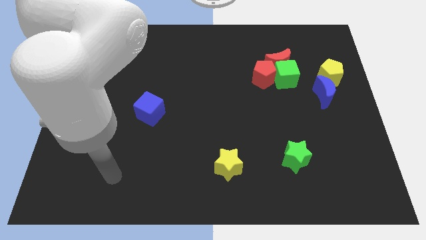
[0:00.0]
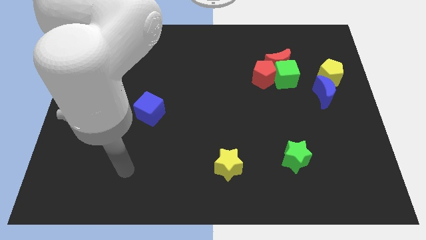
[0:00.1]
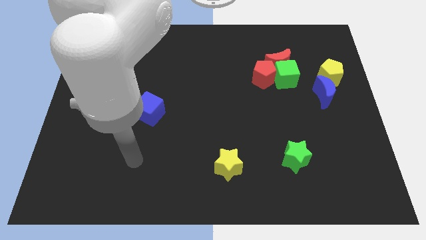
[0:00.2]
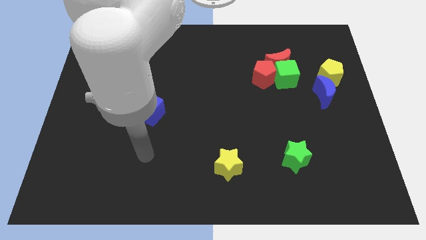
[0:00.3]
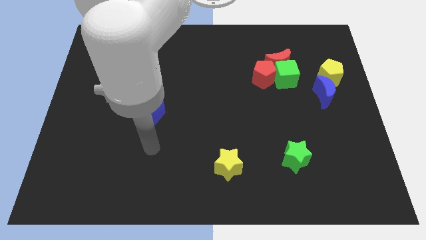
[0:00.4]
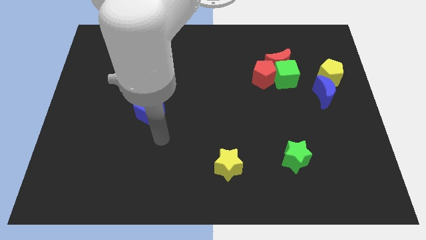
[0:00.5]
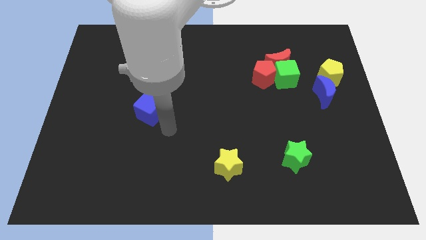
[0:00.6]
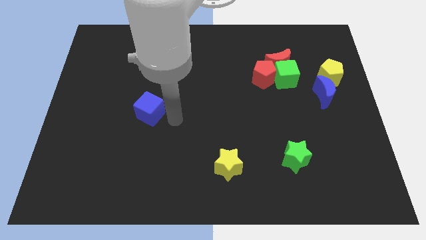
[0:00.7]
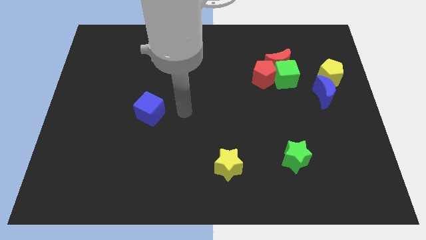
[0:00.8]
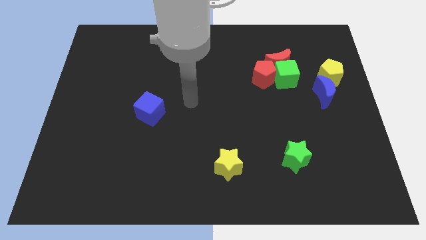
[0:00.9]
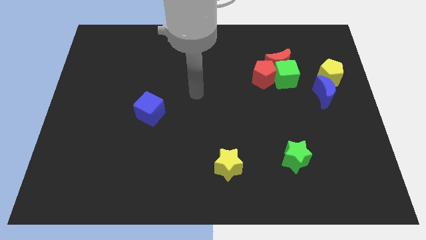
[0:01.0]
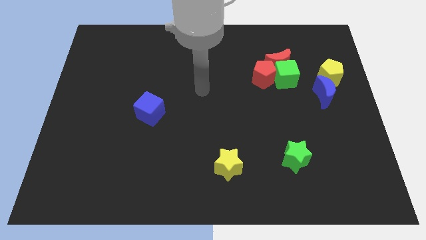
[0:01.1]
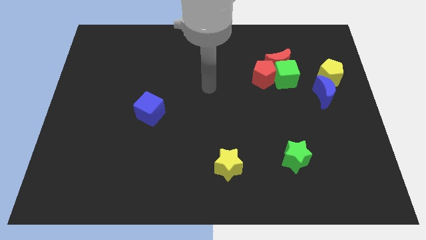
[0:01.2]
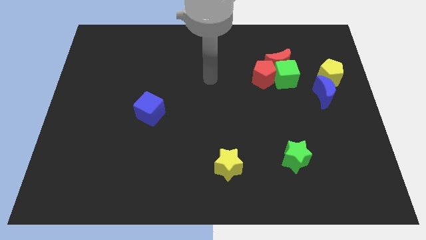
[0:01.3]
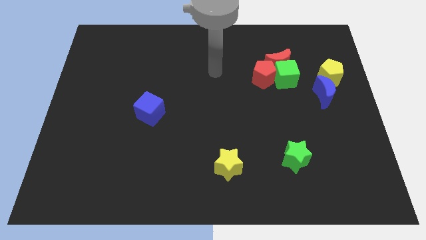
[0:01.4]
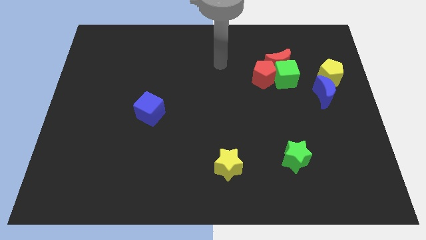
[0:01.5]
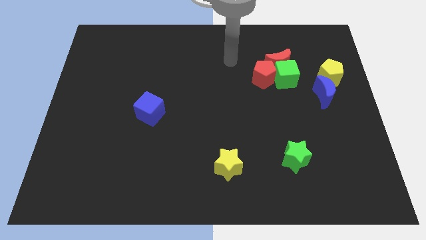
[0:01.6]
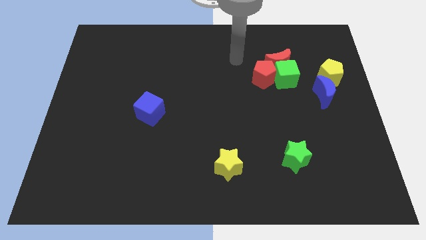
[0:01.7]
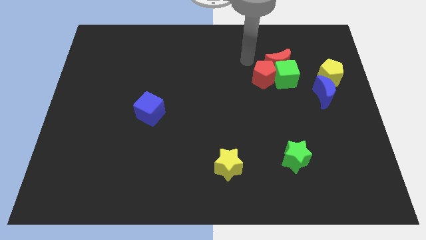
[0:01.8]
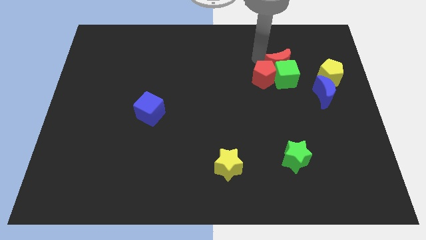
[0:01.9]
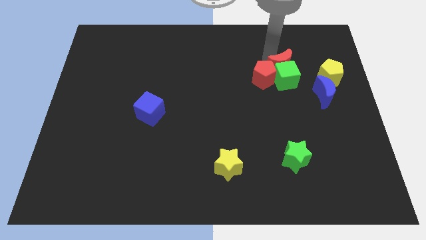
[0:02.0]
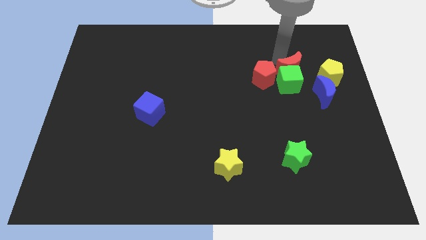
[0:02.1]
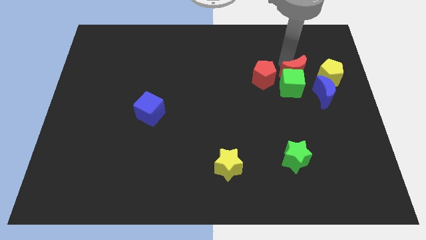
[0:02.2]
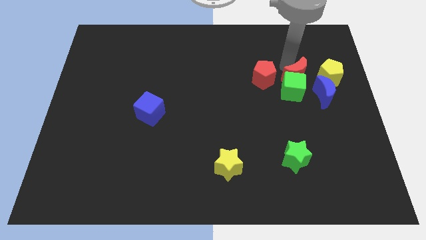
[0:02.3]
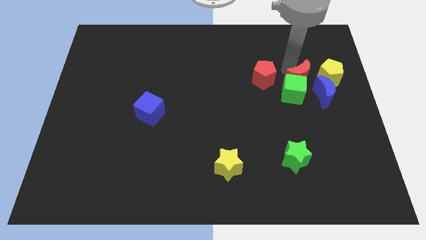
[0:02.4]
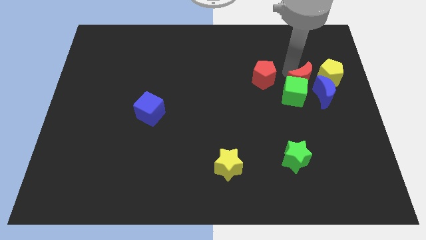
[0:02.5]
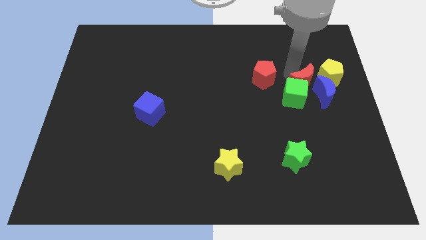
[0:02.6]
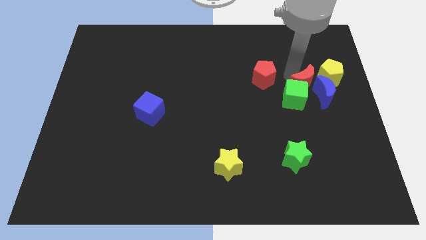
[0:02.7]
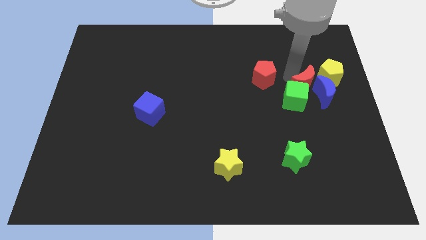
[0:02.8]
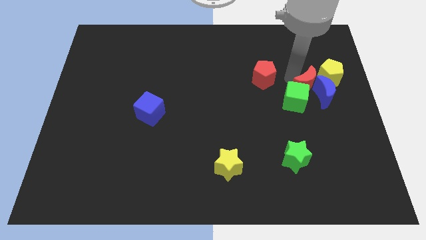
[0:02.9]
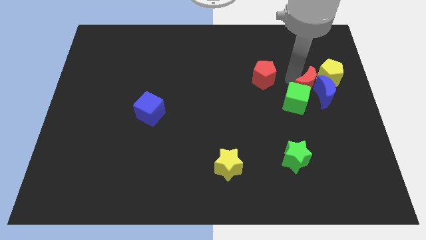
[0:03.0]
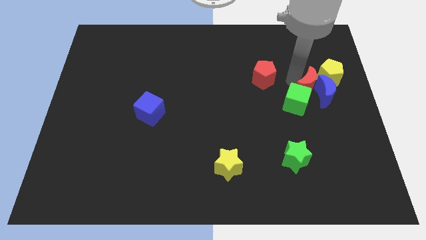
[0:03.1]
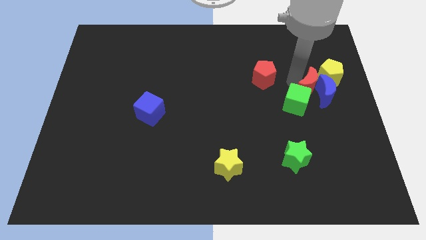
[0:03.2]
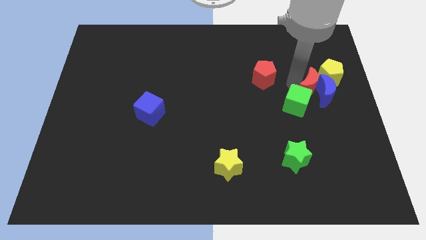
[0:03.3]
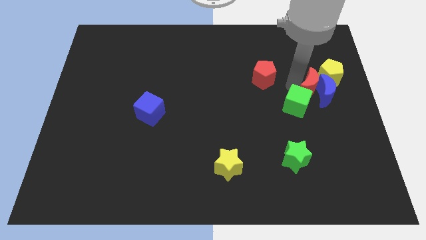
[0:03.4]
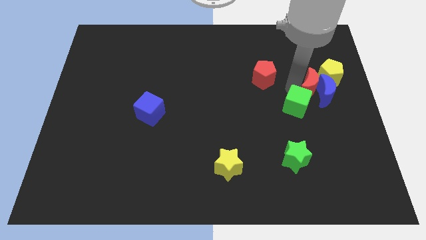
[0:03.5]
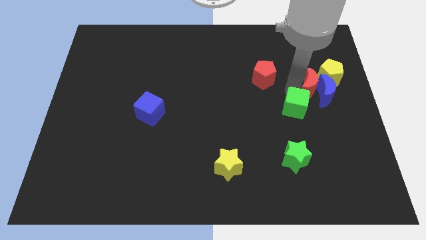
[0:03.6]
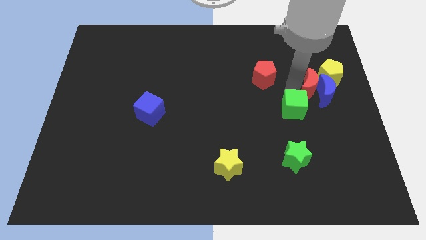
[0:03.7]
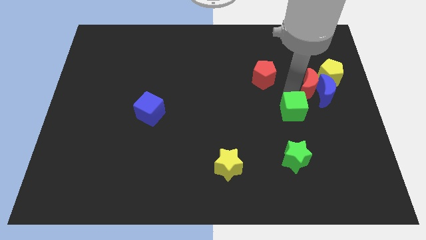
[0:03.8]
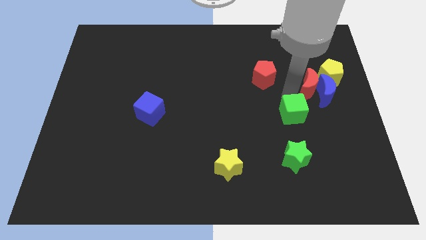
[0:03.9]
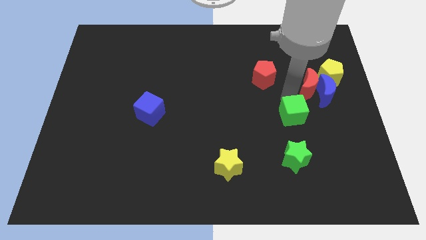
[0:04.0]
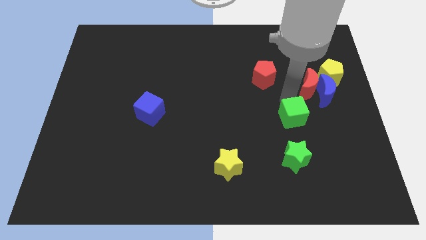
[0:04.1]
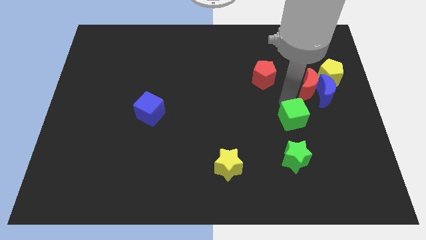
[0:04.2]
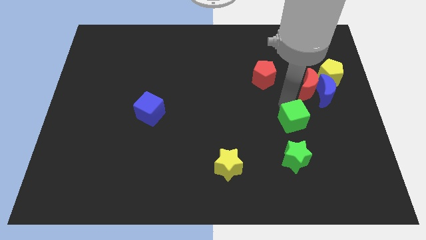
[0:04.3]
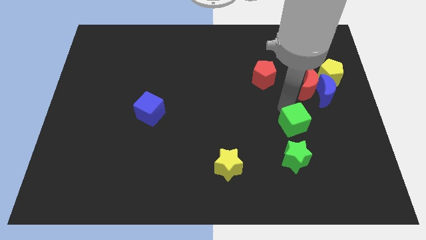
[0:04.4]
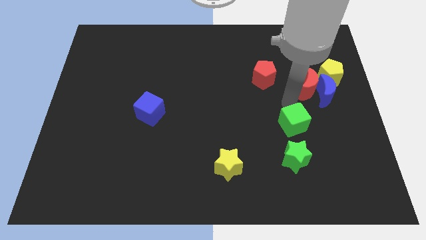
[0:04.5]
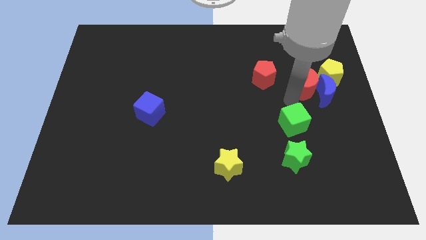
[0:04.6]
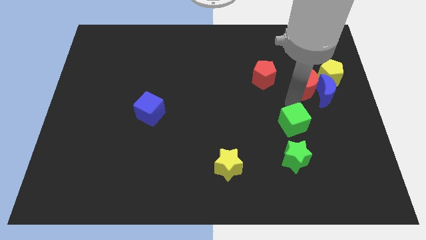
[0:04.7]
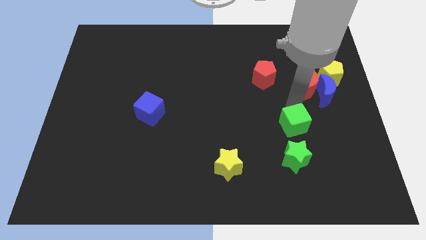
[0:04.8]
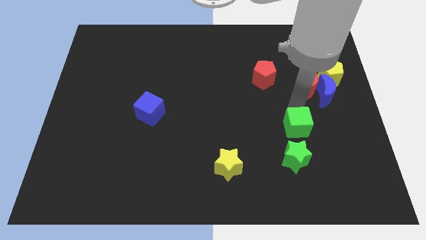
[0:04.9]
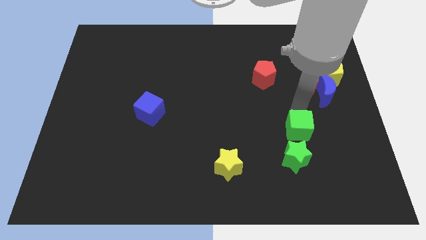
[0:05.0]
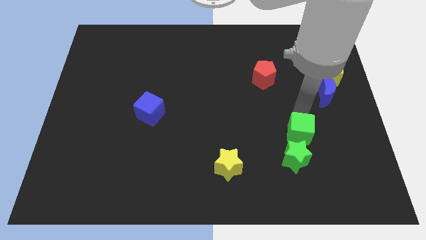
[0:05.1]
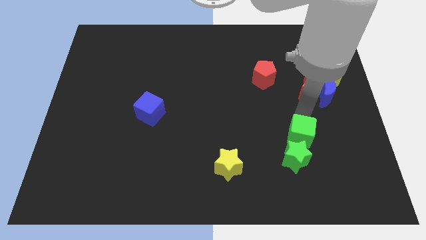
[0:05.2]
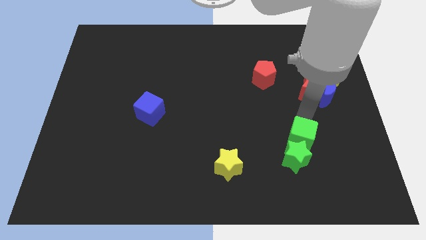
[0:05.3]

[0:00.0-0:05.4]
push the green cube to the green star

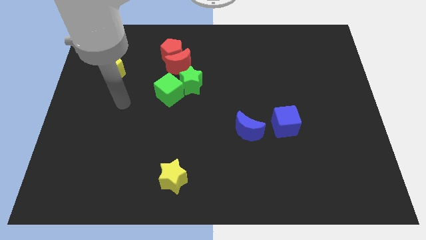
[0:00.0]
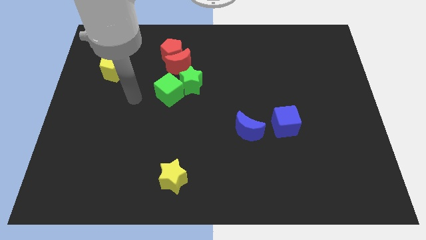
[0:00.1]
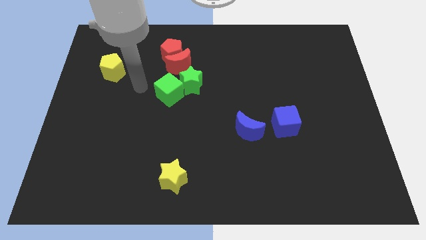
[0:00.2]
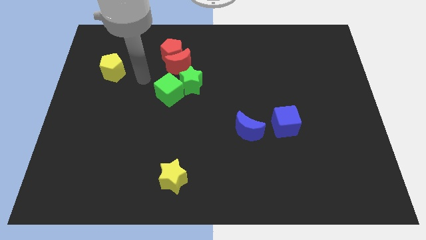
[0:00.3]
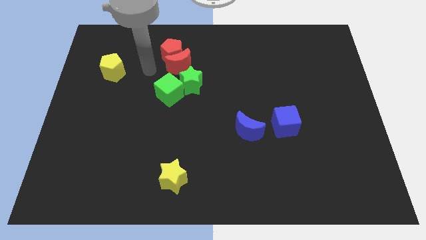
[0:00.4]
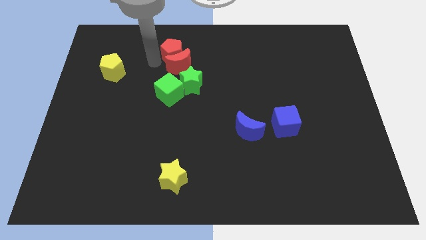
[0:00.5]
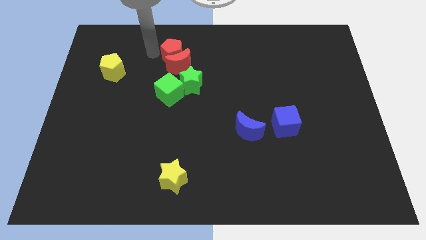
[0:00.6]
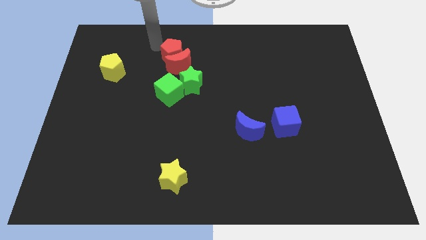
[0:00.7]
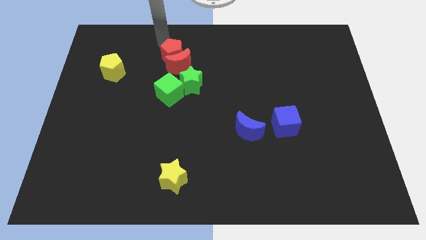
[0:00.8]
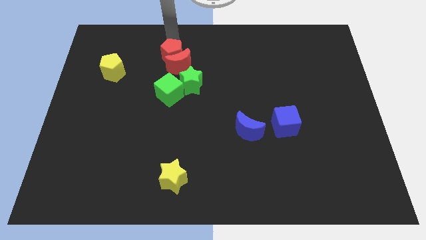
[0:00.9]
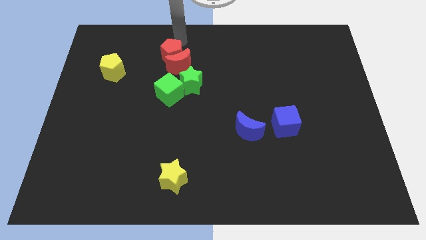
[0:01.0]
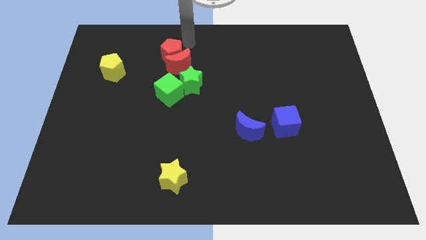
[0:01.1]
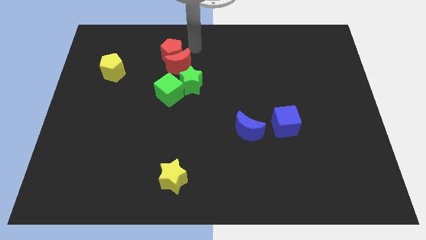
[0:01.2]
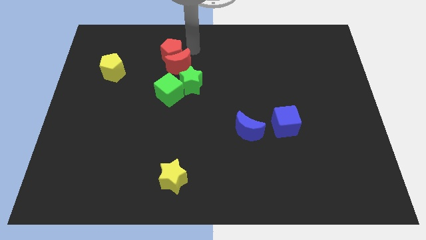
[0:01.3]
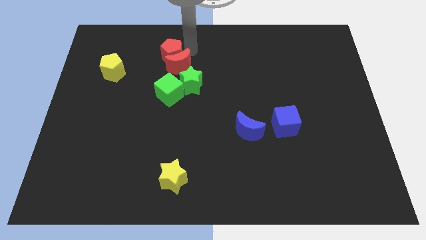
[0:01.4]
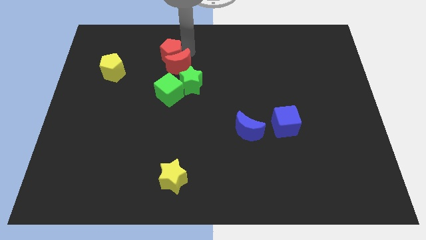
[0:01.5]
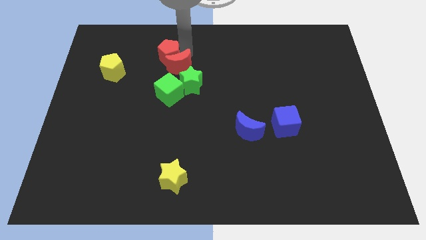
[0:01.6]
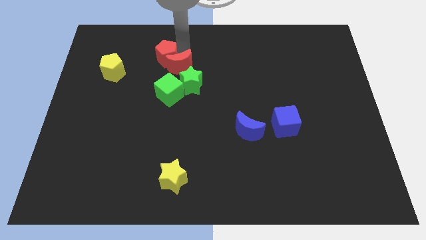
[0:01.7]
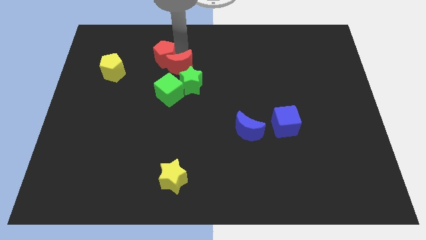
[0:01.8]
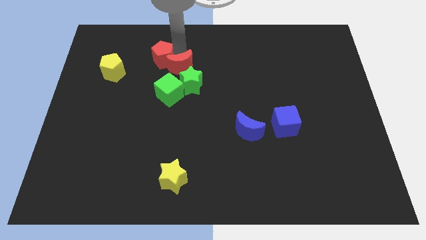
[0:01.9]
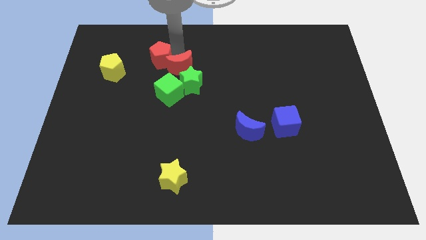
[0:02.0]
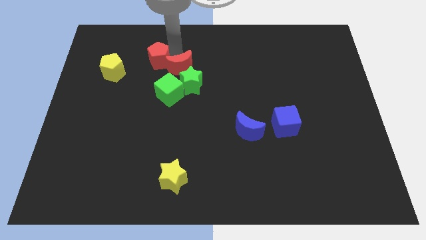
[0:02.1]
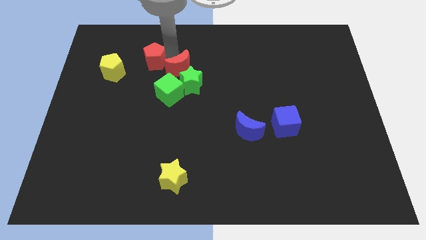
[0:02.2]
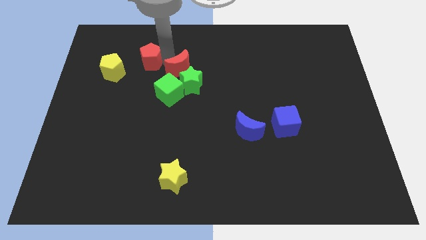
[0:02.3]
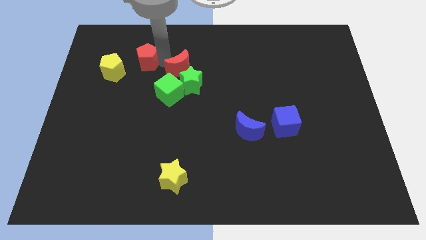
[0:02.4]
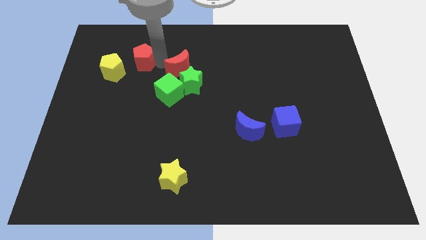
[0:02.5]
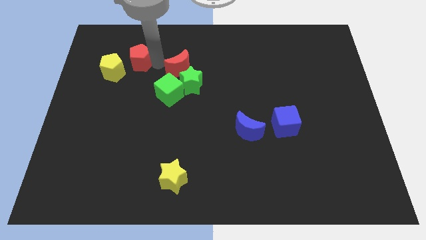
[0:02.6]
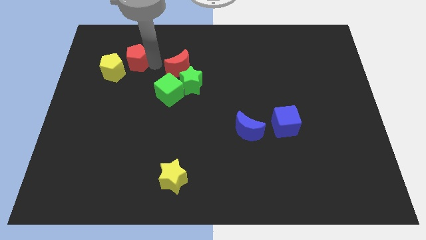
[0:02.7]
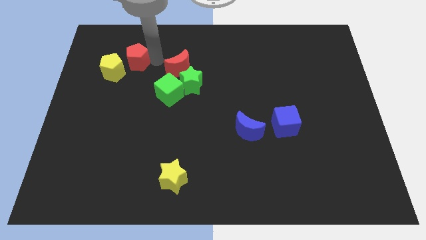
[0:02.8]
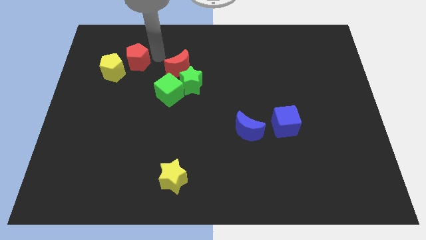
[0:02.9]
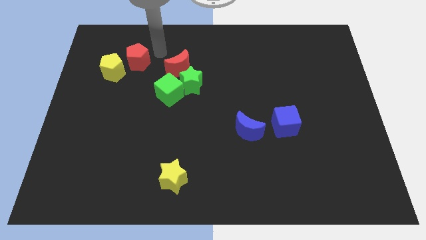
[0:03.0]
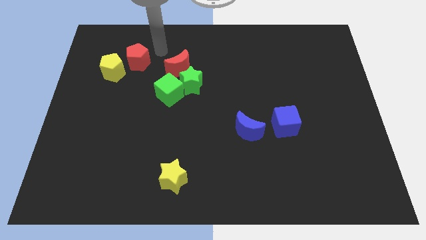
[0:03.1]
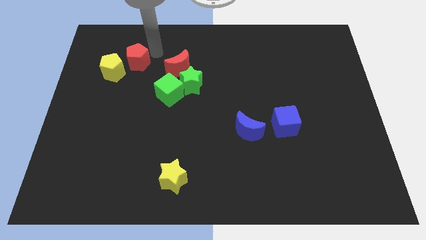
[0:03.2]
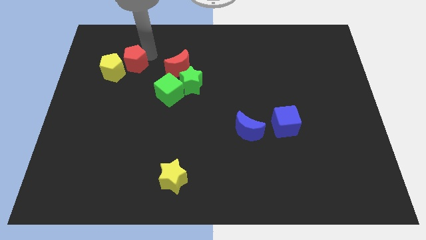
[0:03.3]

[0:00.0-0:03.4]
put the red pentagon next to the yellow pentagon
